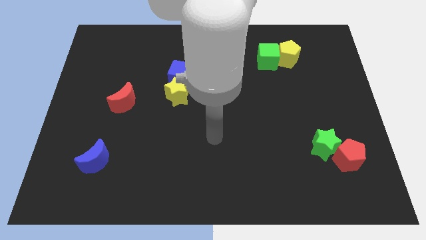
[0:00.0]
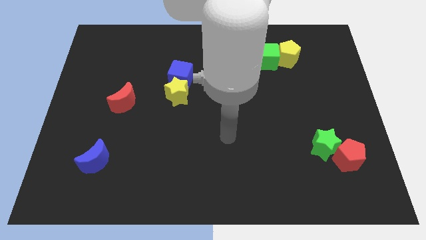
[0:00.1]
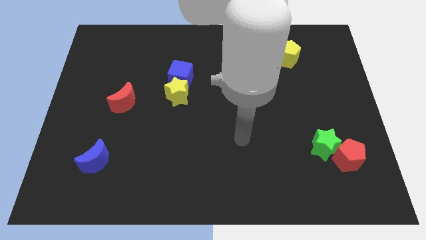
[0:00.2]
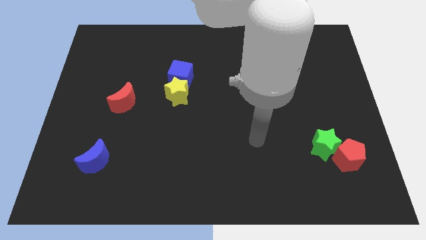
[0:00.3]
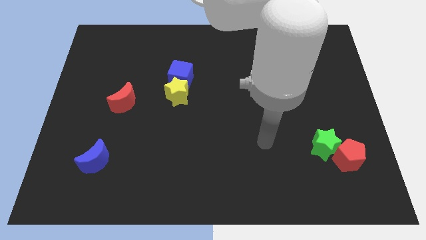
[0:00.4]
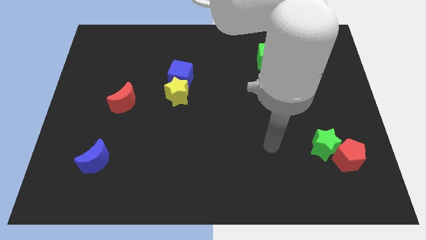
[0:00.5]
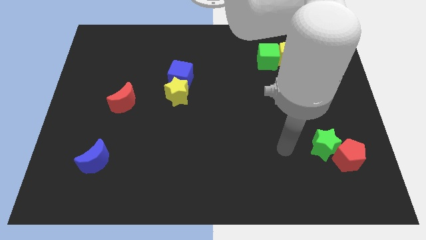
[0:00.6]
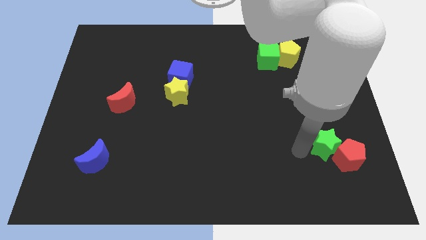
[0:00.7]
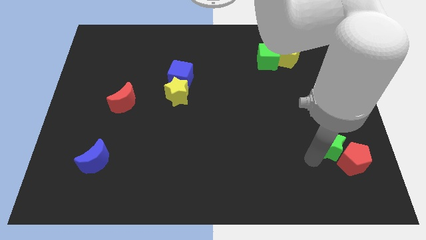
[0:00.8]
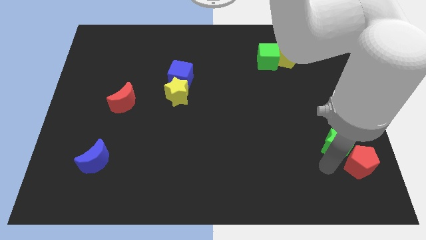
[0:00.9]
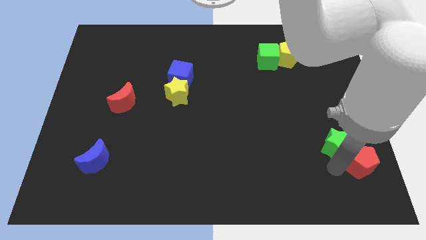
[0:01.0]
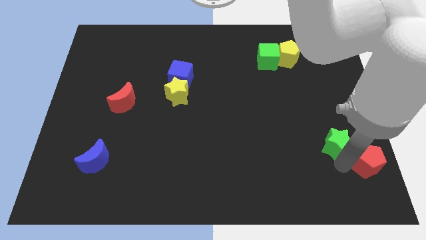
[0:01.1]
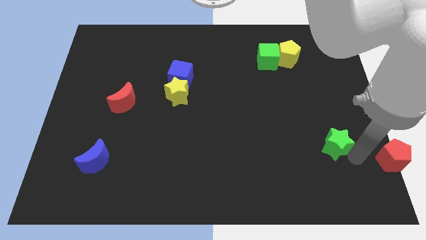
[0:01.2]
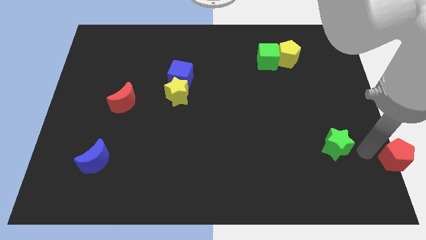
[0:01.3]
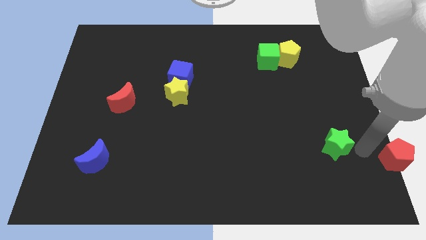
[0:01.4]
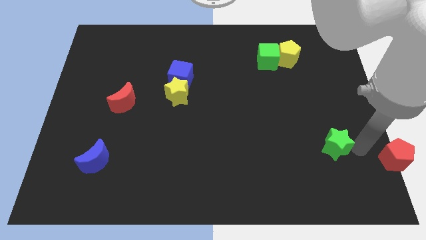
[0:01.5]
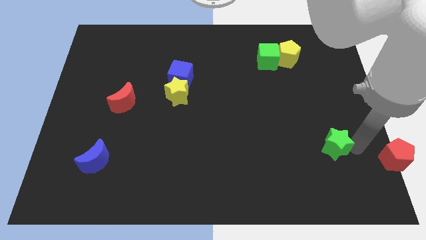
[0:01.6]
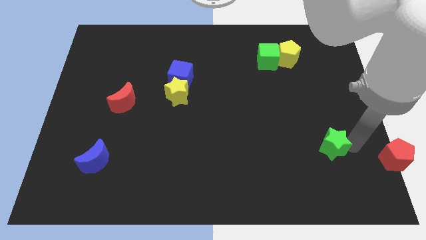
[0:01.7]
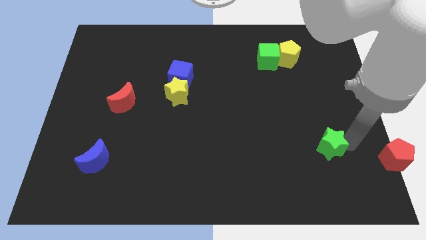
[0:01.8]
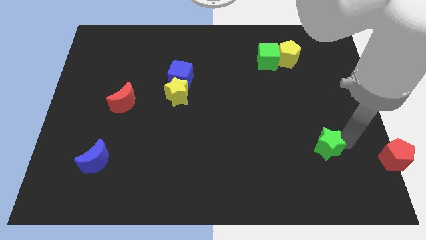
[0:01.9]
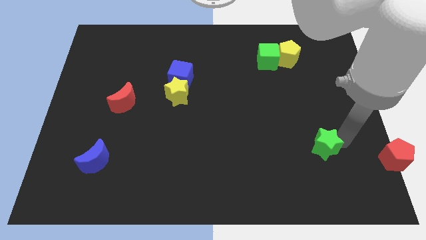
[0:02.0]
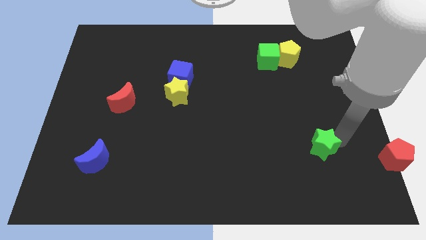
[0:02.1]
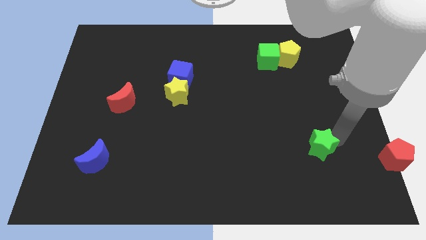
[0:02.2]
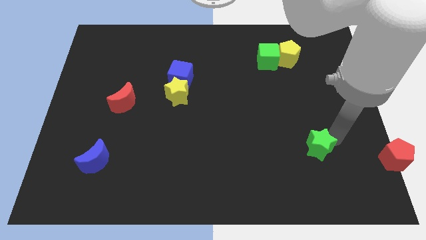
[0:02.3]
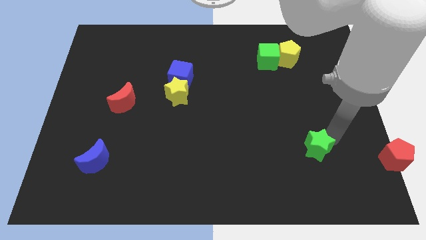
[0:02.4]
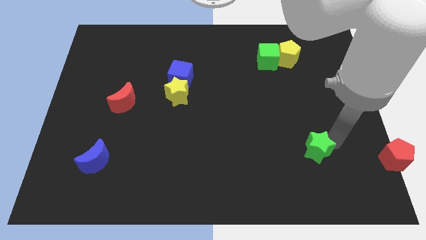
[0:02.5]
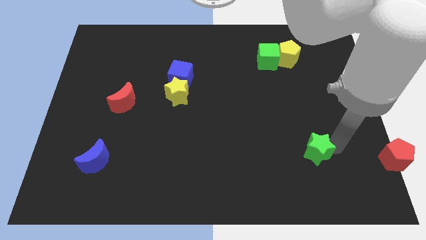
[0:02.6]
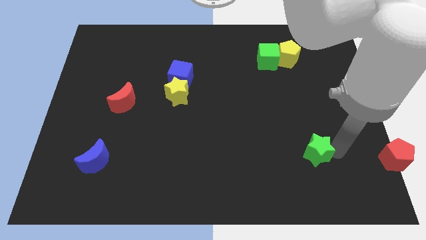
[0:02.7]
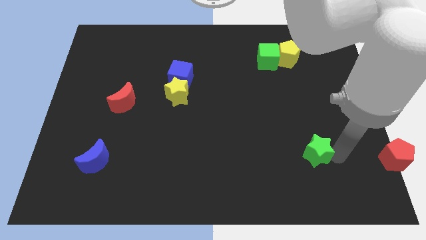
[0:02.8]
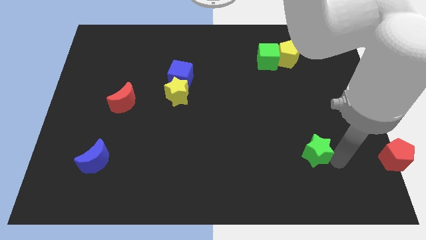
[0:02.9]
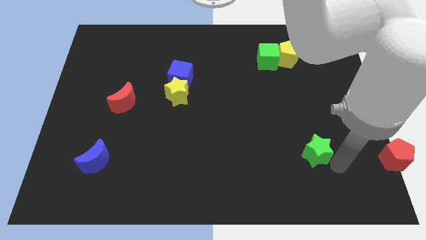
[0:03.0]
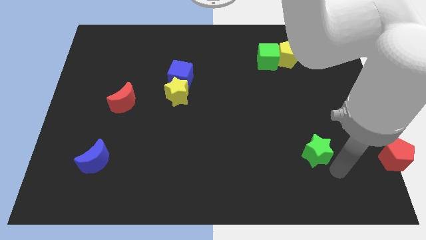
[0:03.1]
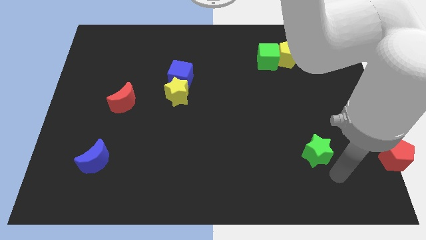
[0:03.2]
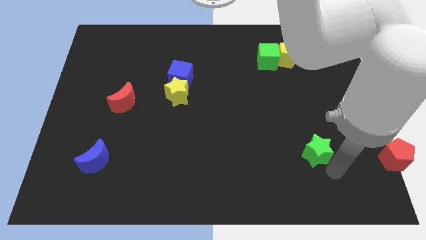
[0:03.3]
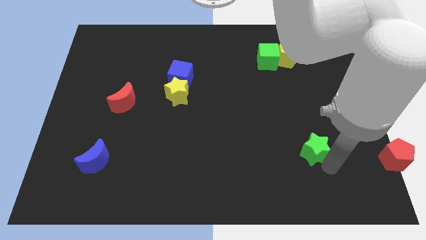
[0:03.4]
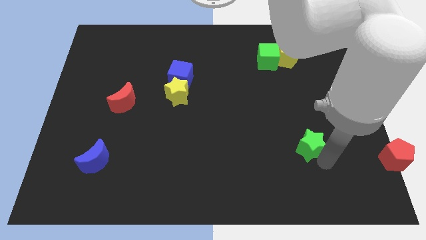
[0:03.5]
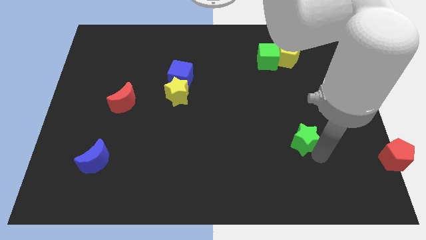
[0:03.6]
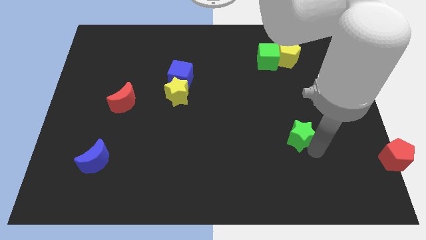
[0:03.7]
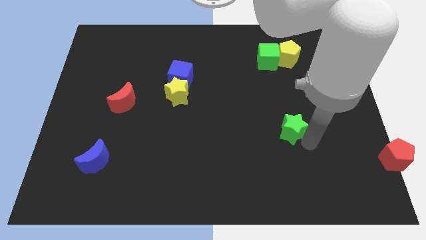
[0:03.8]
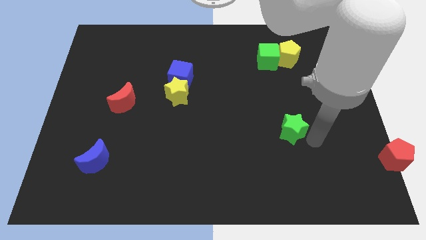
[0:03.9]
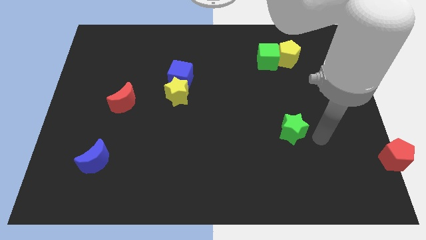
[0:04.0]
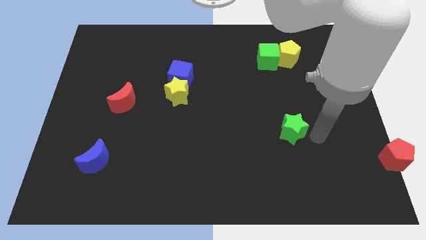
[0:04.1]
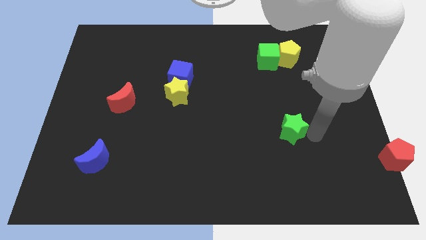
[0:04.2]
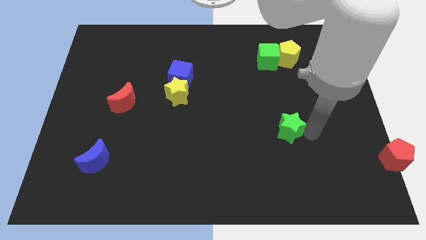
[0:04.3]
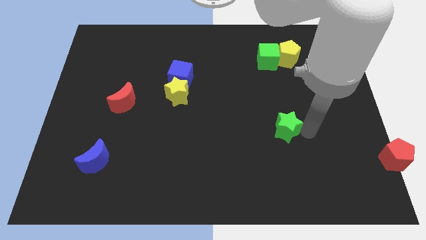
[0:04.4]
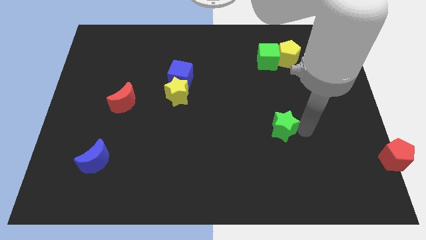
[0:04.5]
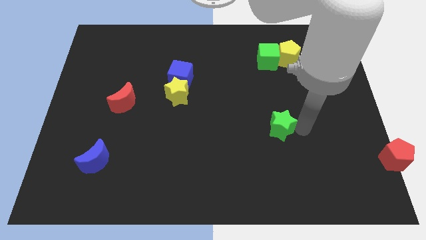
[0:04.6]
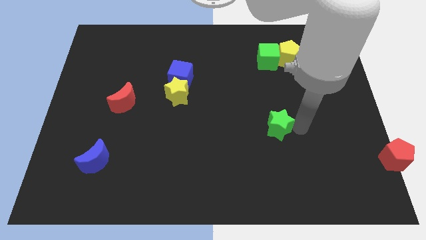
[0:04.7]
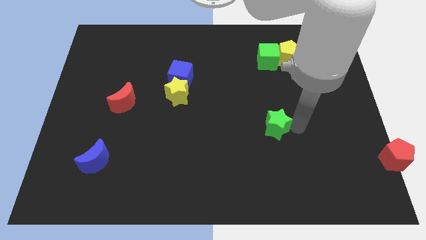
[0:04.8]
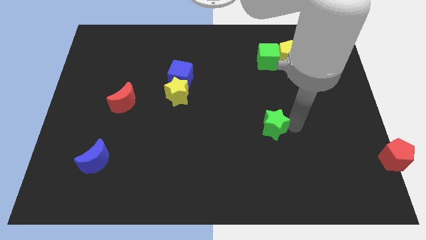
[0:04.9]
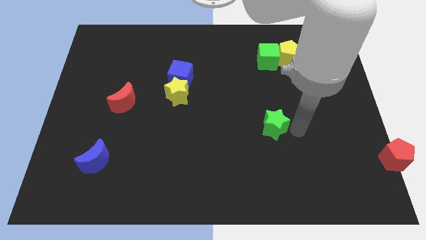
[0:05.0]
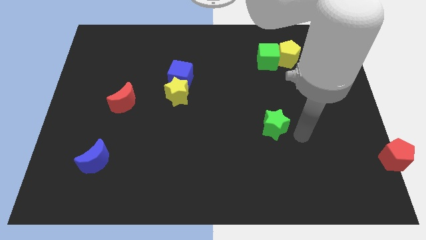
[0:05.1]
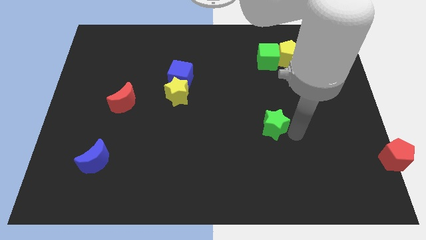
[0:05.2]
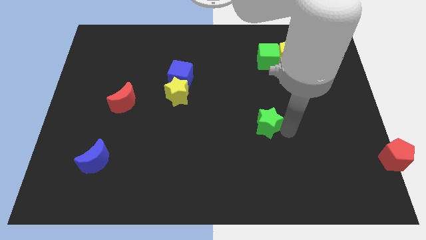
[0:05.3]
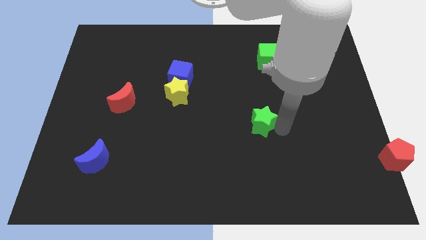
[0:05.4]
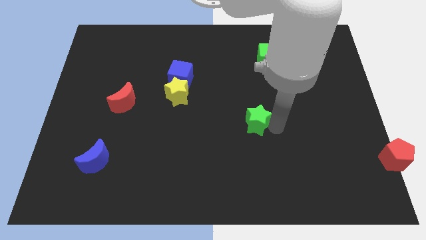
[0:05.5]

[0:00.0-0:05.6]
slide the green star to the middle of the board
